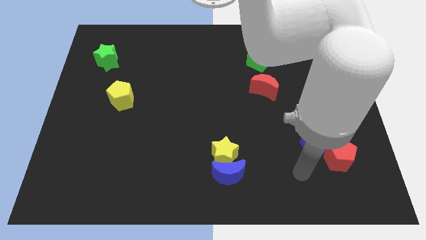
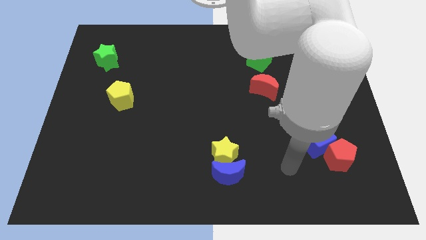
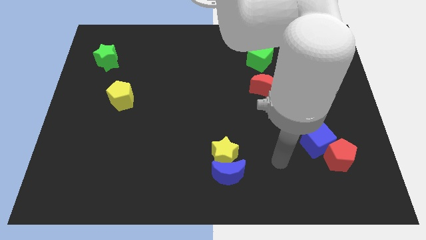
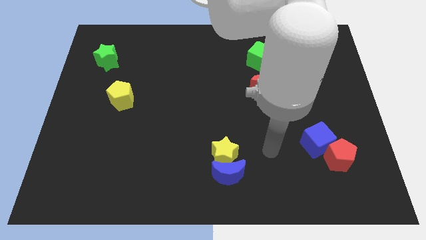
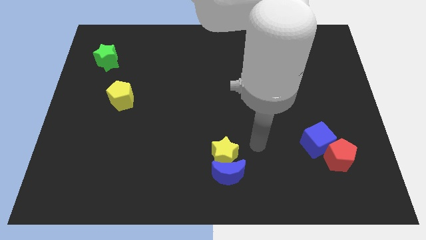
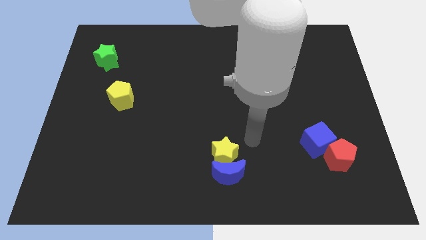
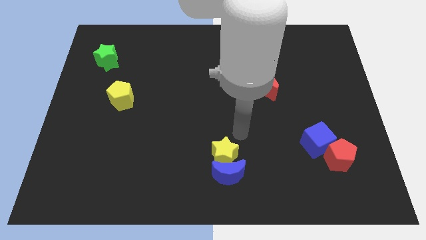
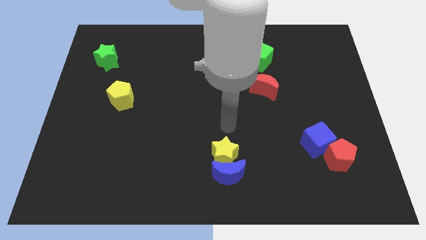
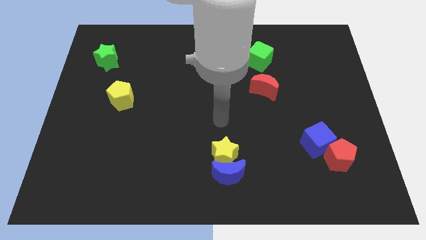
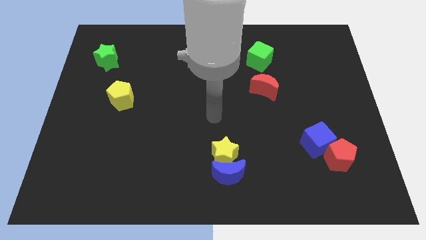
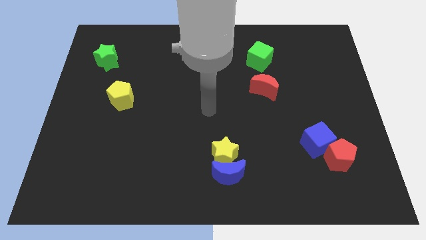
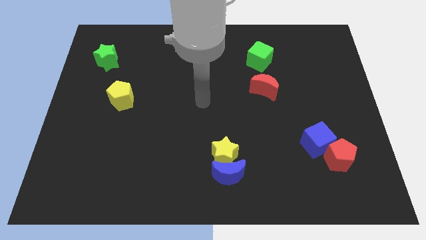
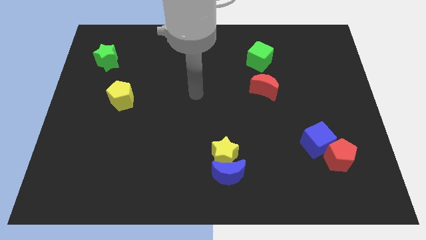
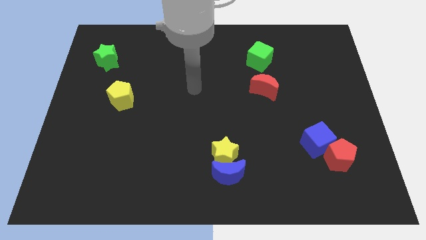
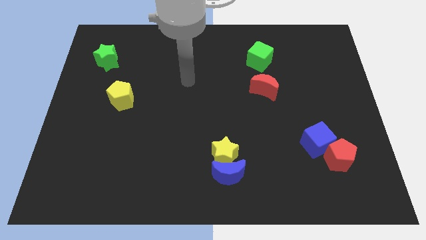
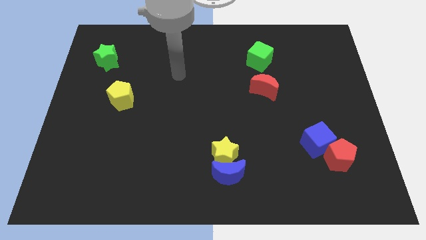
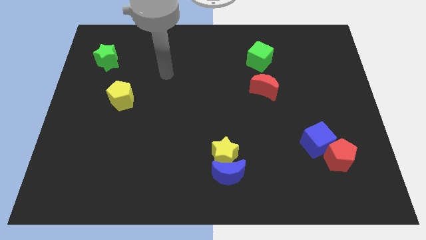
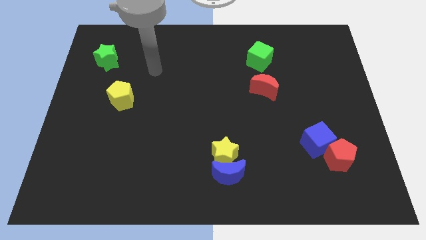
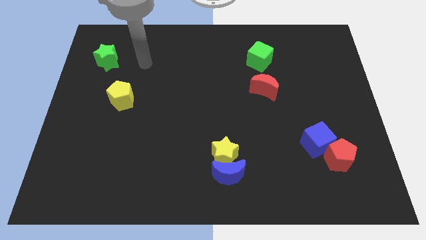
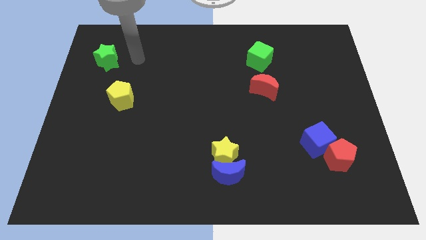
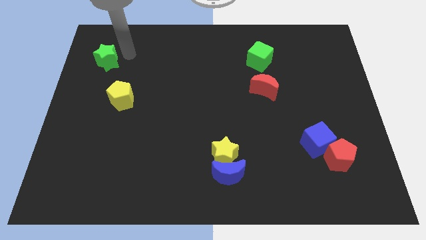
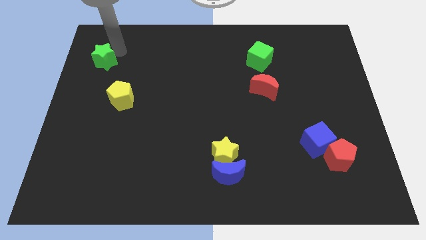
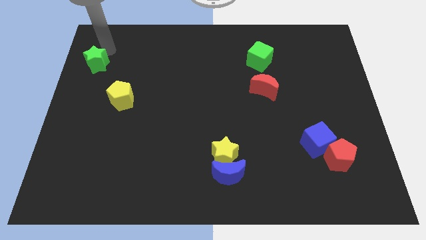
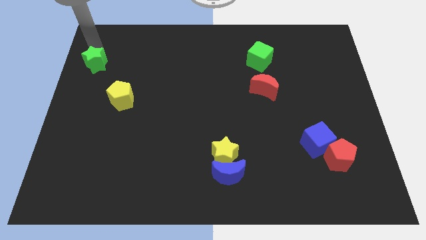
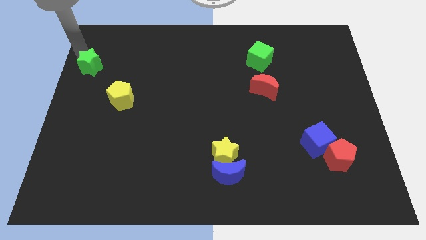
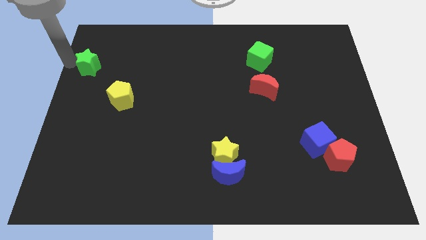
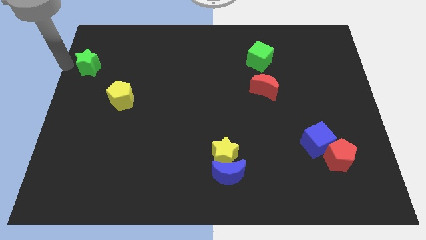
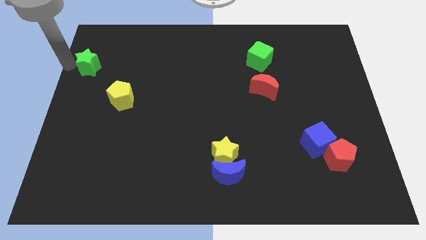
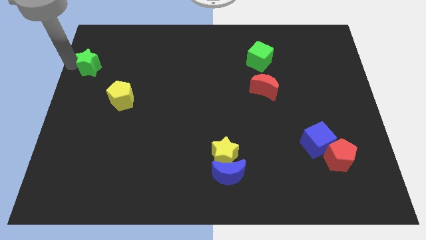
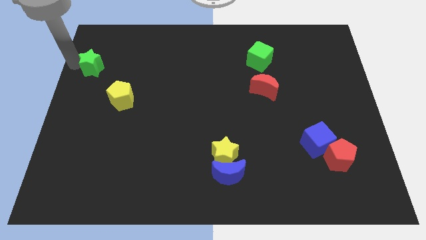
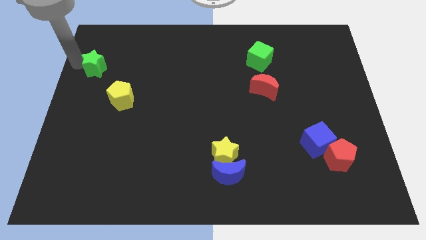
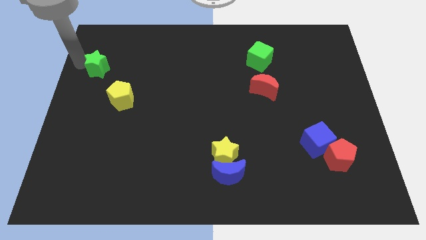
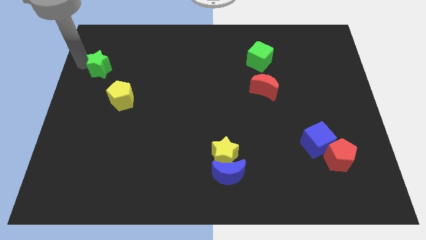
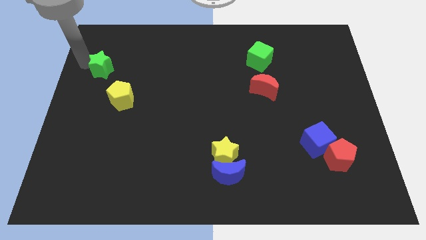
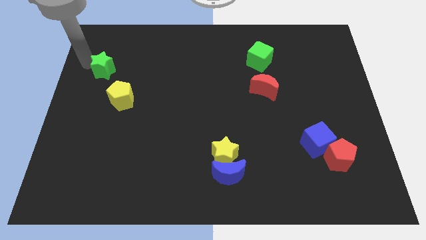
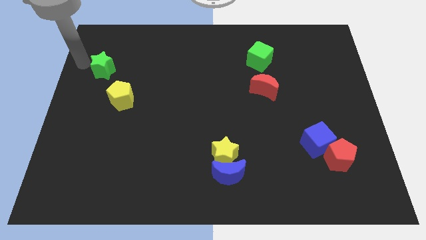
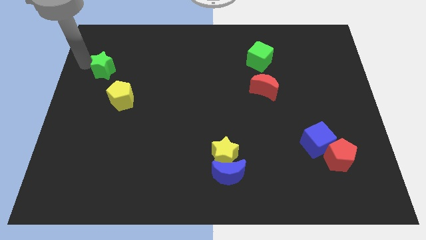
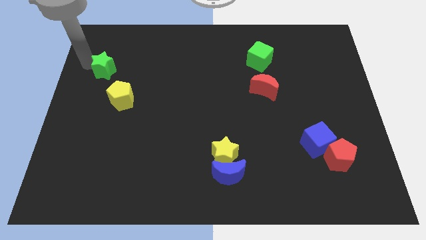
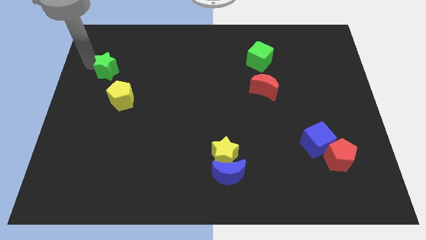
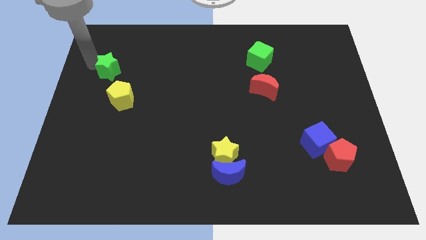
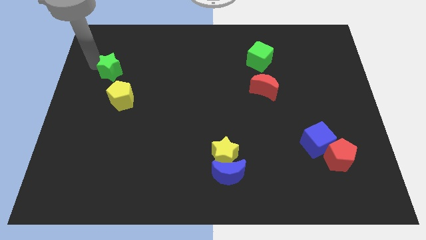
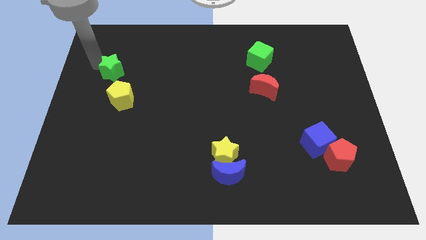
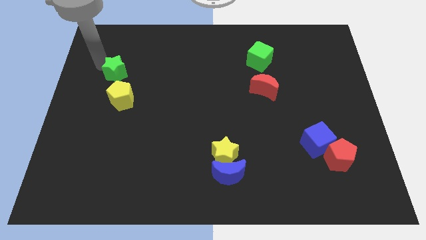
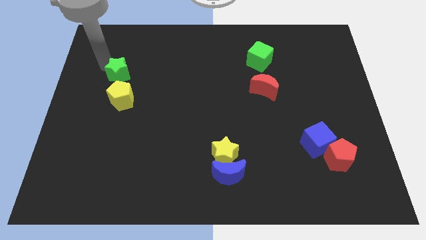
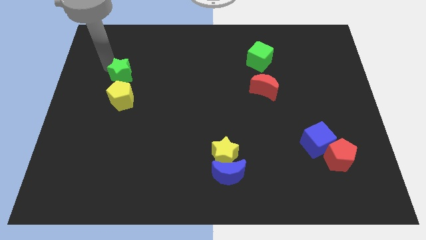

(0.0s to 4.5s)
slide the green star slightly down and then right

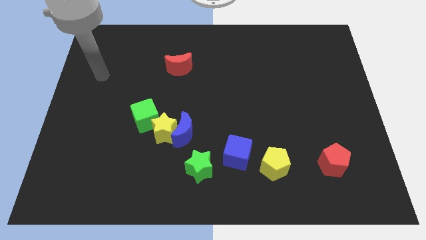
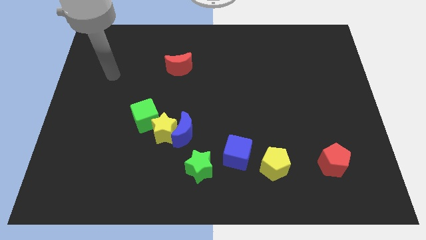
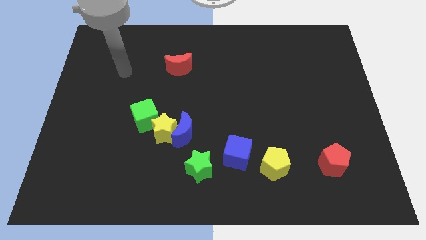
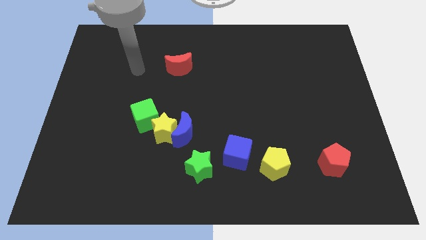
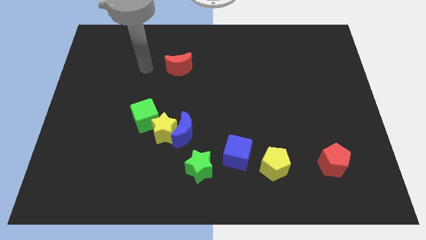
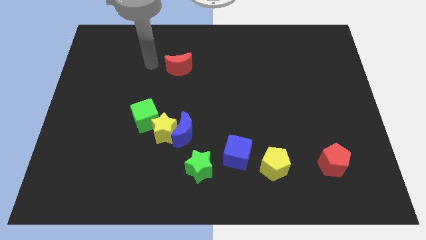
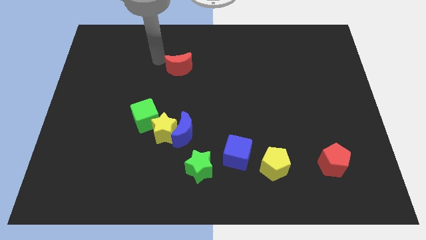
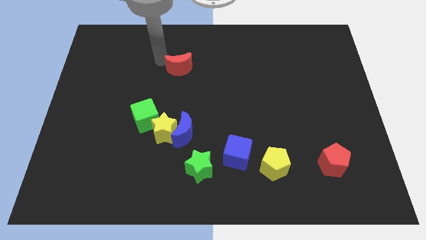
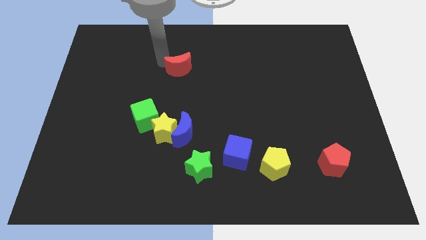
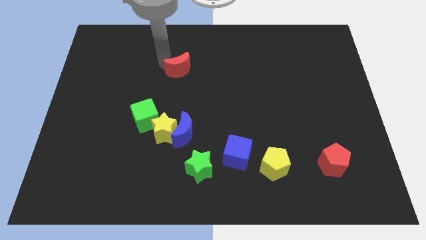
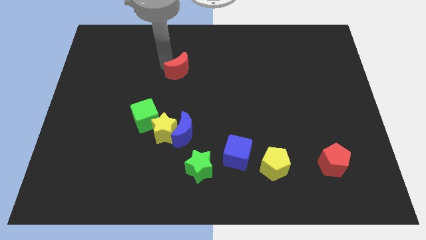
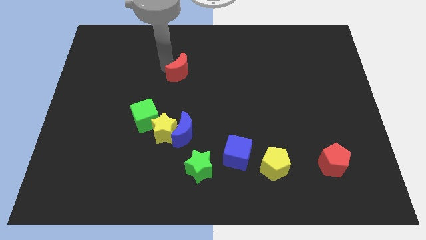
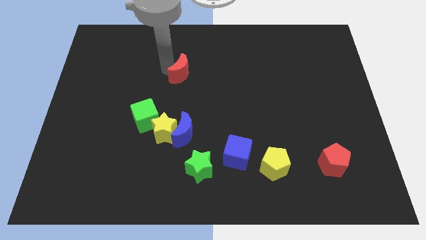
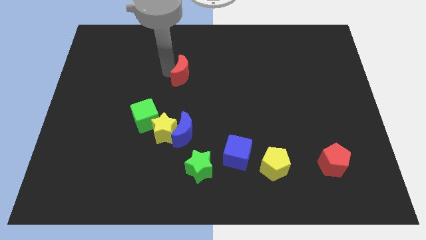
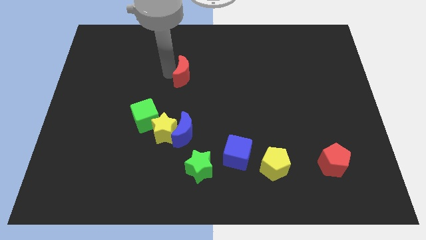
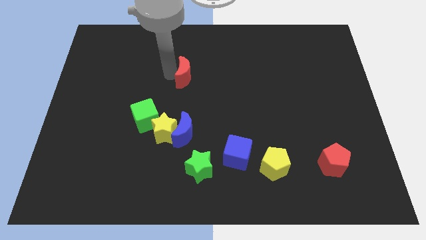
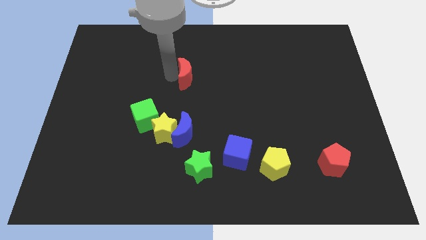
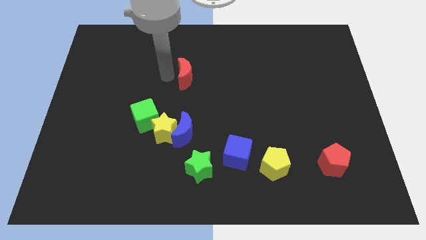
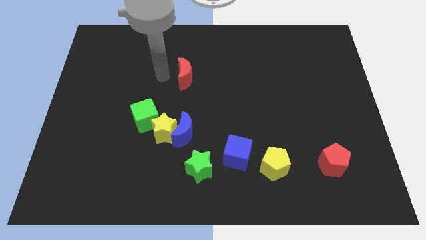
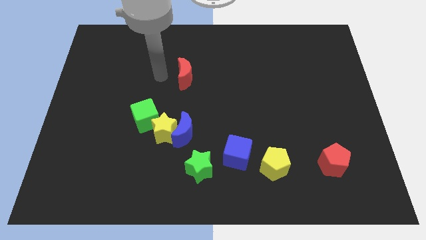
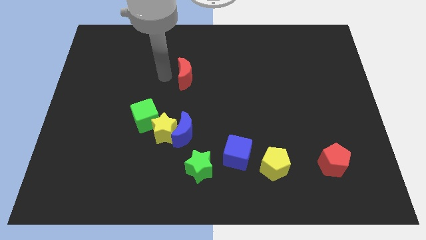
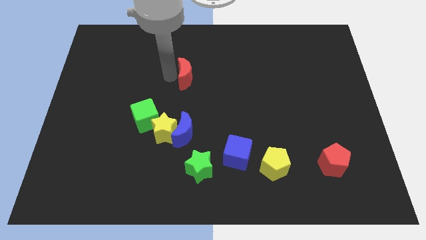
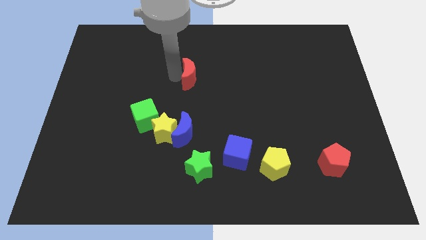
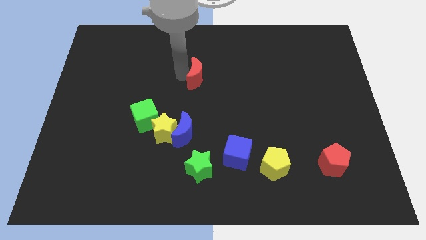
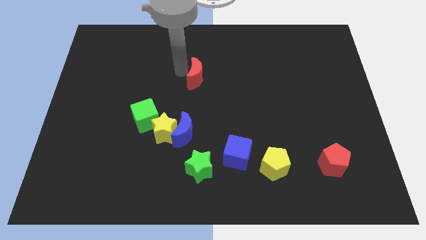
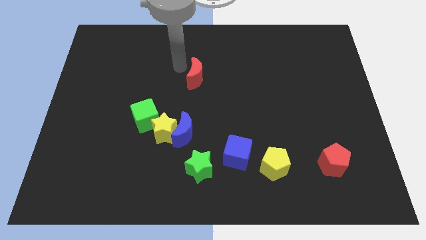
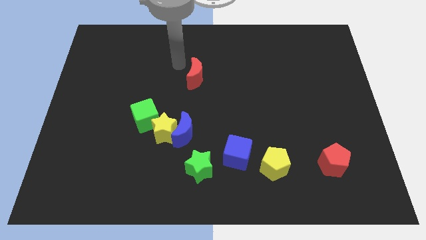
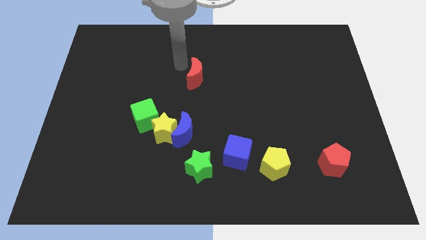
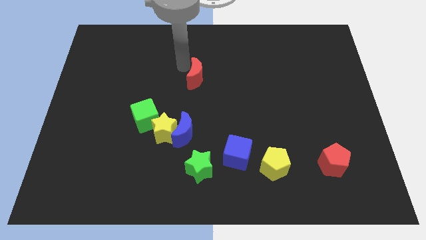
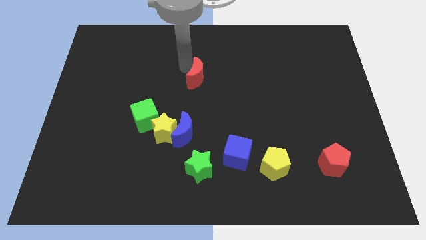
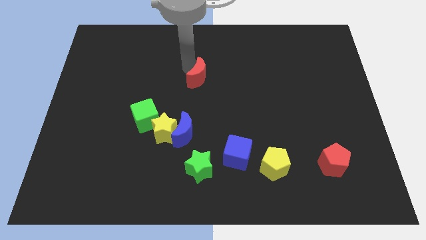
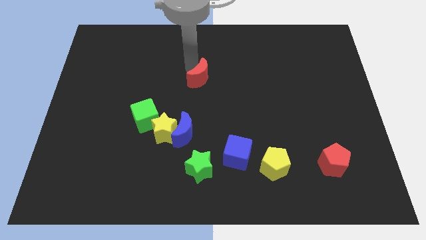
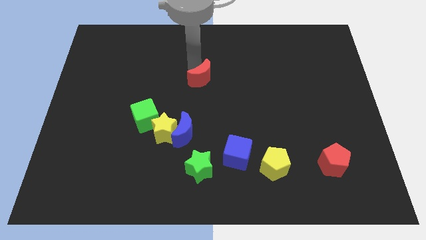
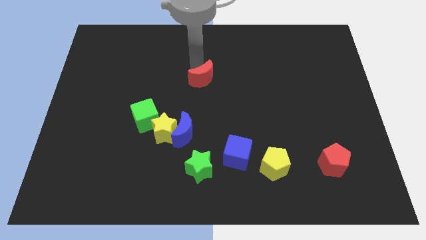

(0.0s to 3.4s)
slide the red moon a little bit down and to the right

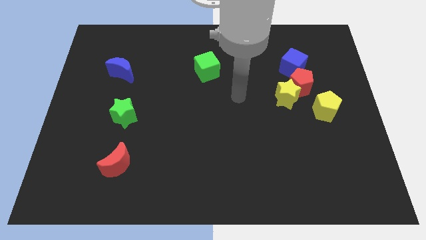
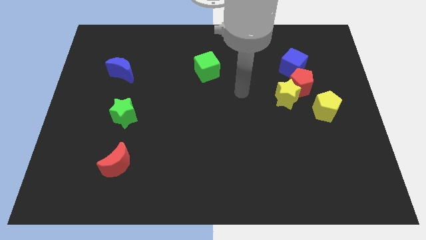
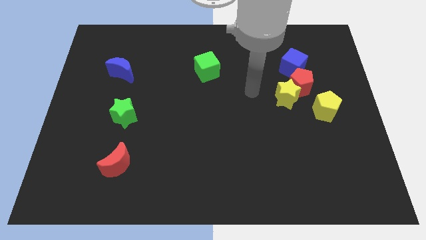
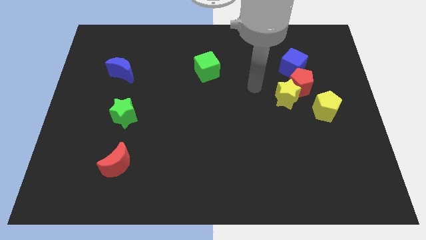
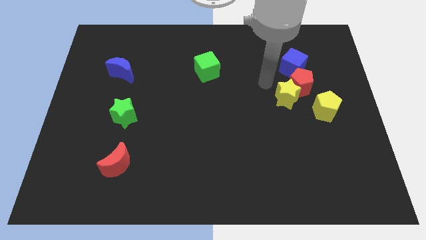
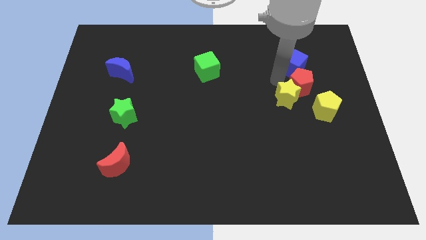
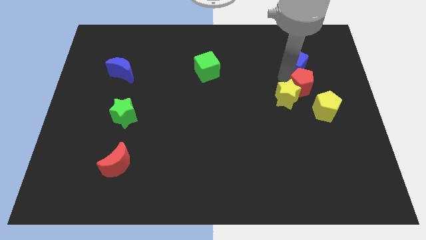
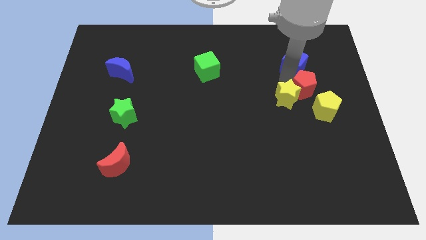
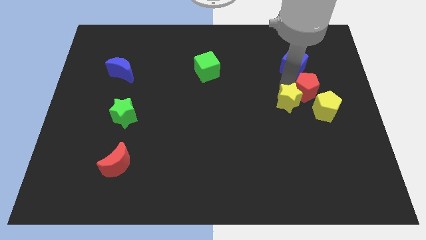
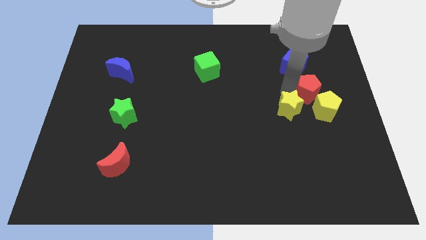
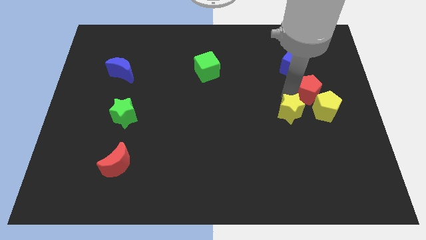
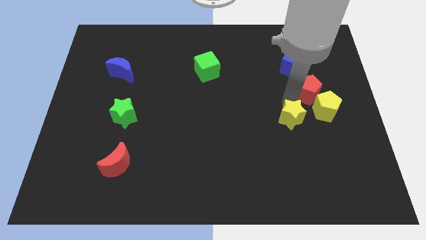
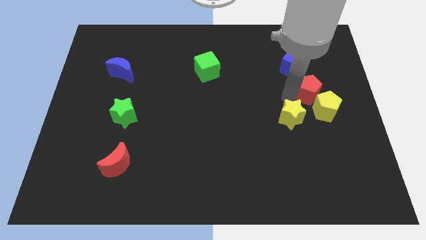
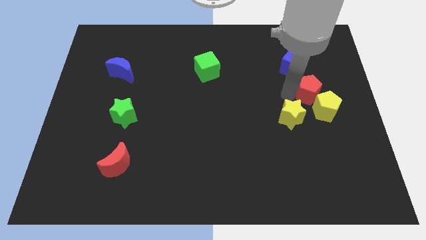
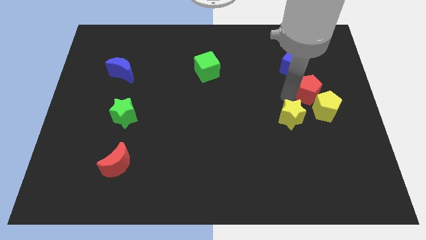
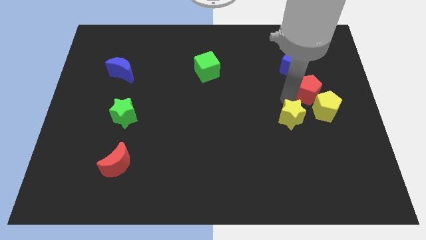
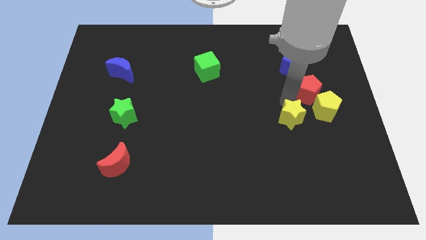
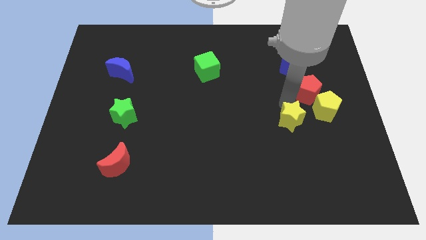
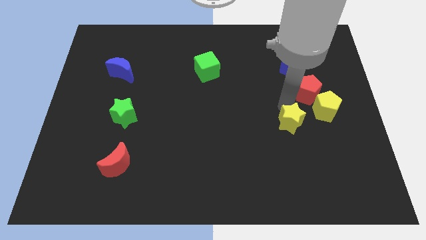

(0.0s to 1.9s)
push the yellow star slightly down
